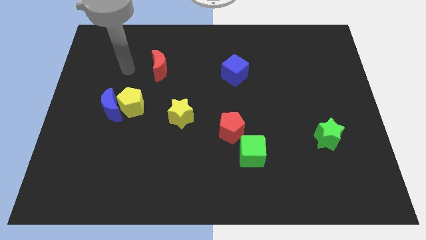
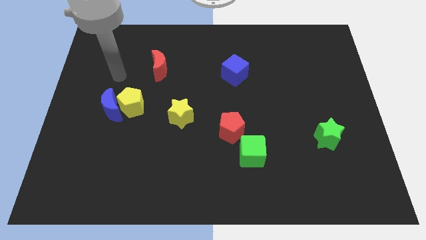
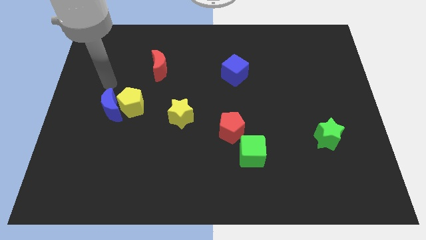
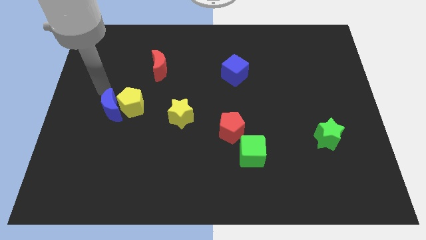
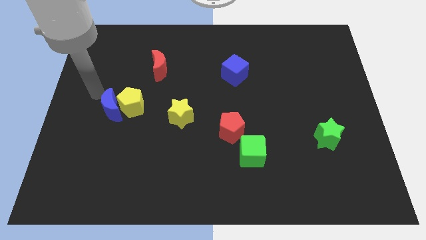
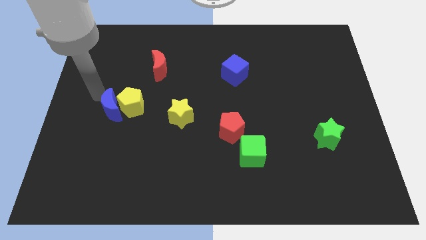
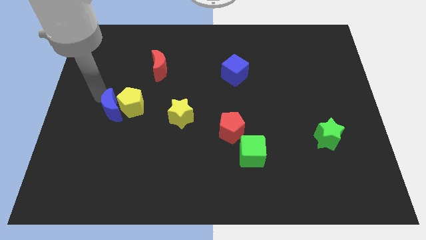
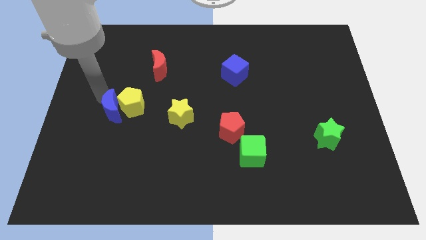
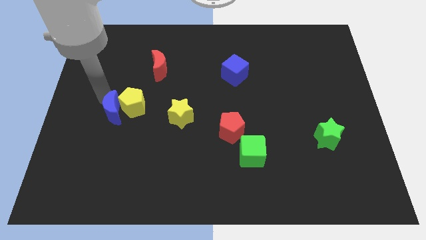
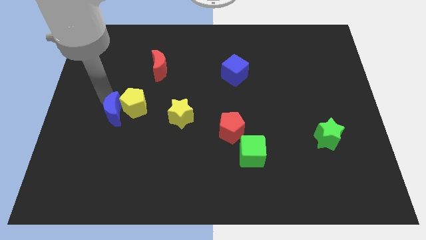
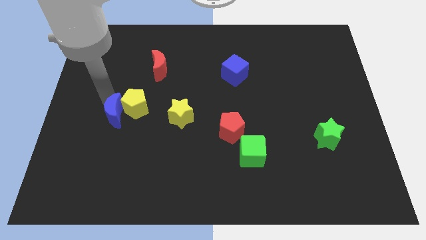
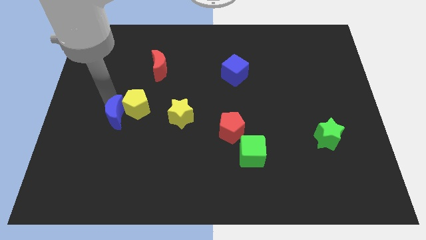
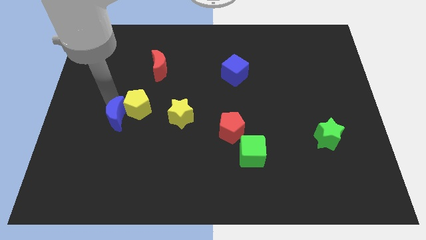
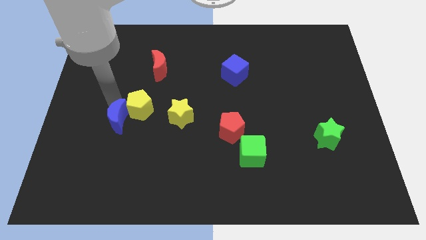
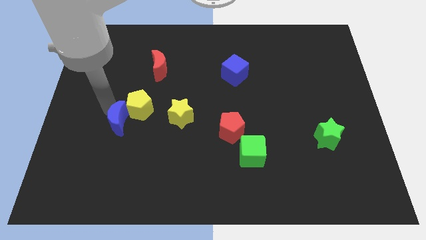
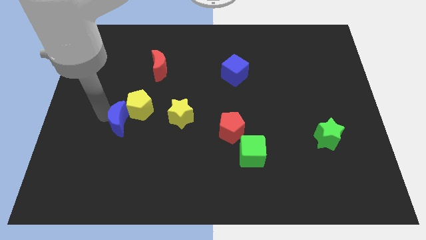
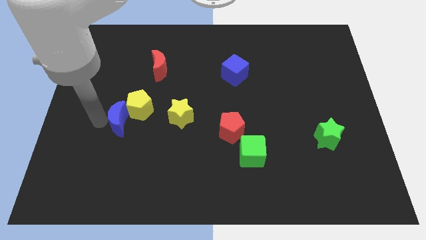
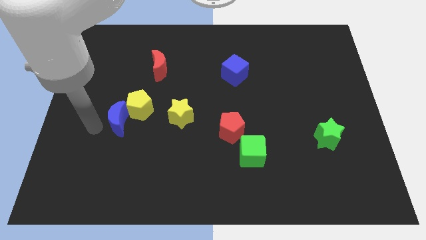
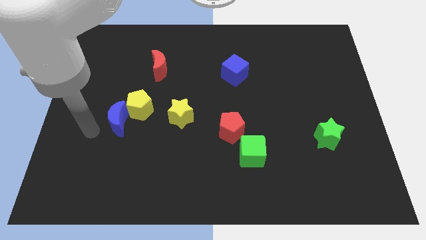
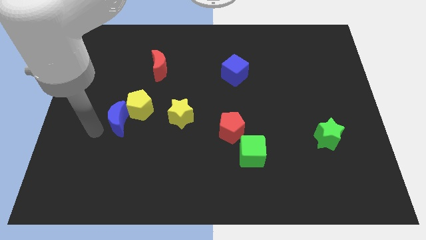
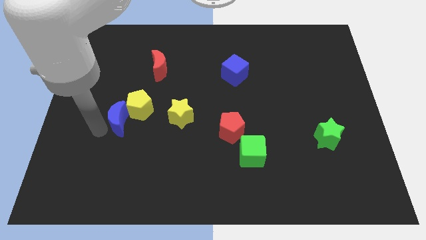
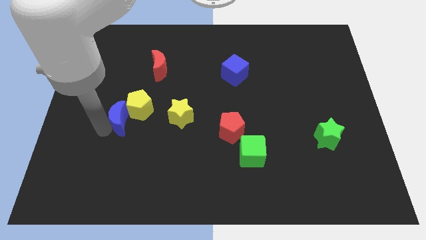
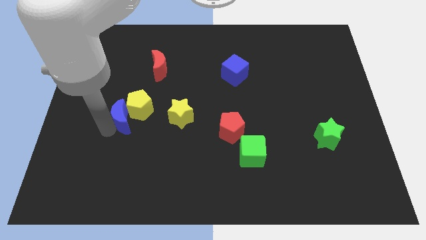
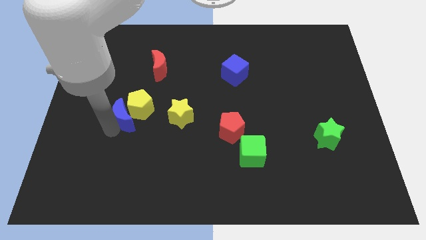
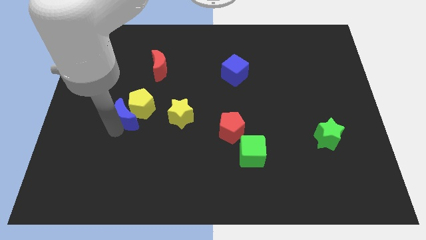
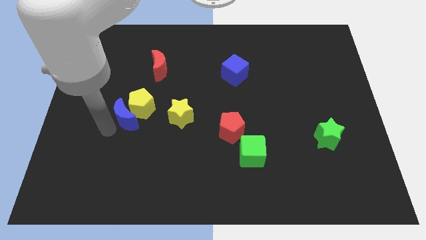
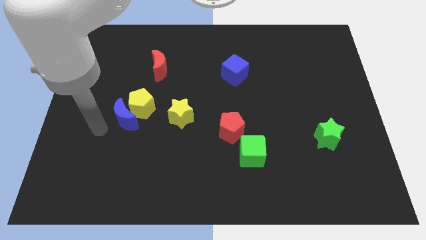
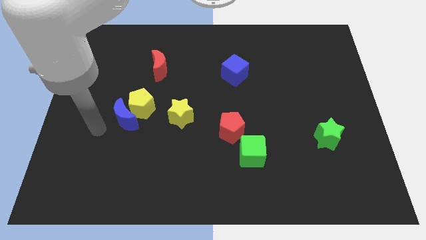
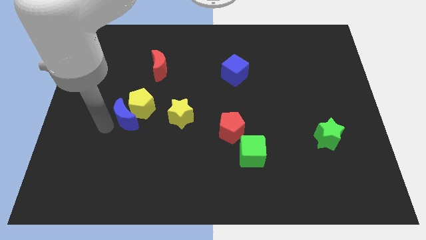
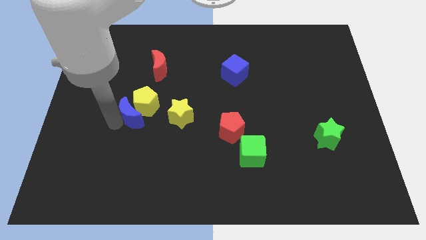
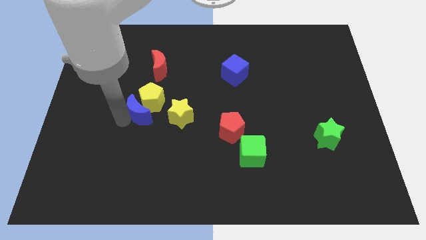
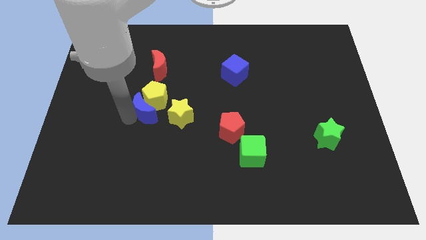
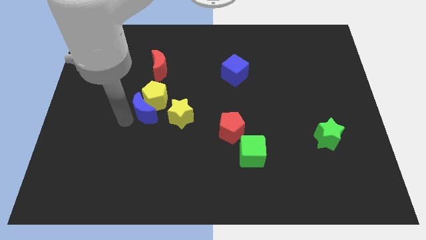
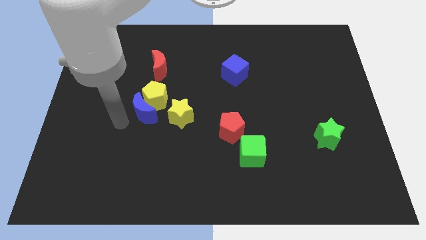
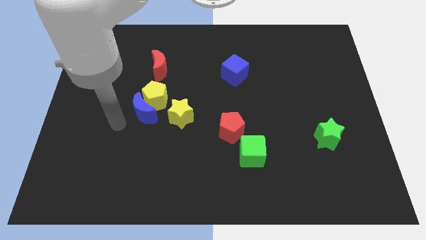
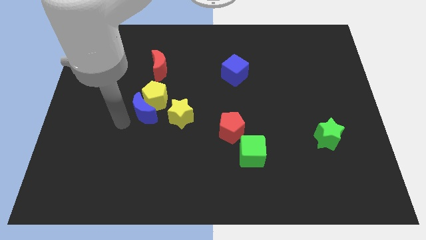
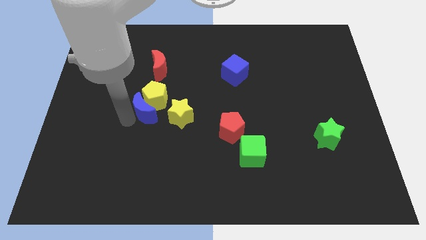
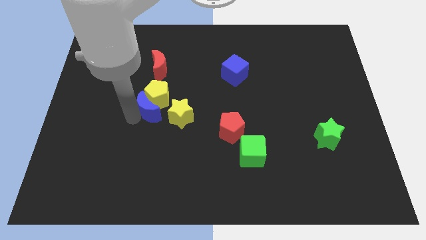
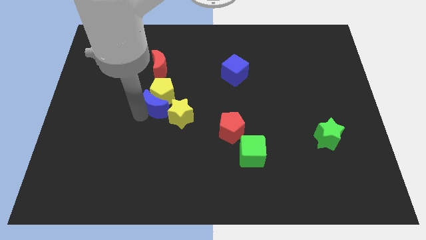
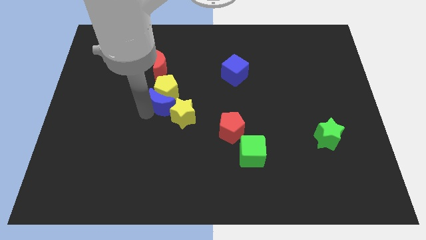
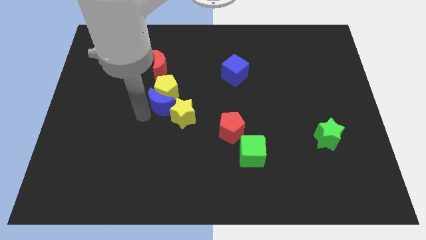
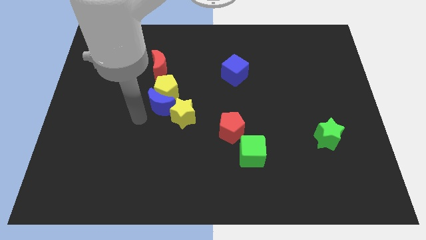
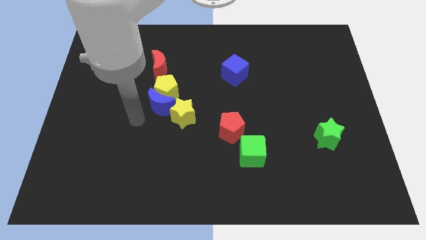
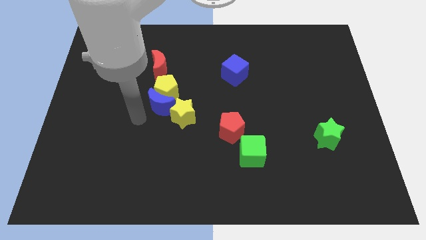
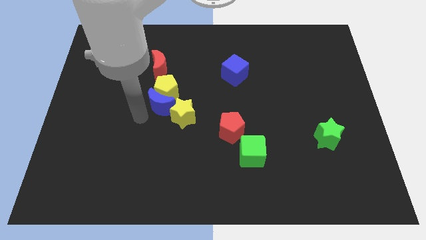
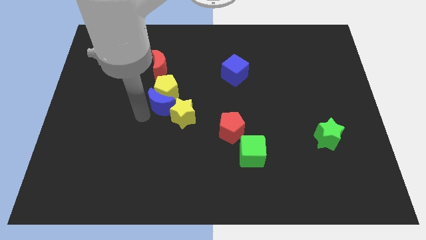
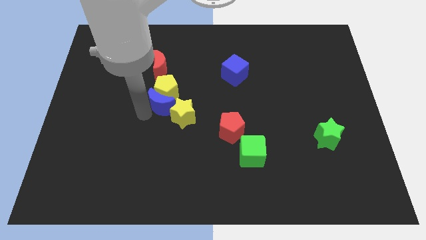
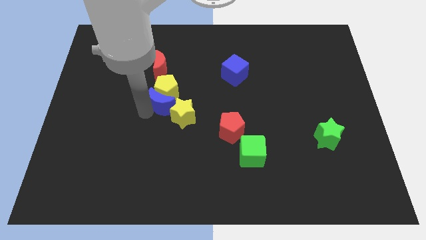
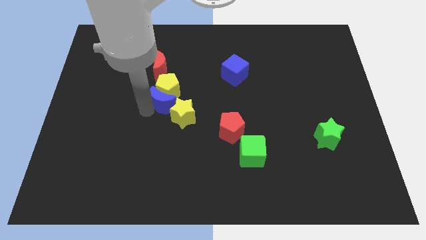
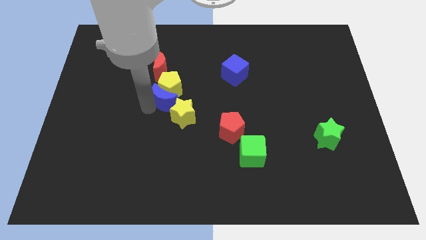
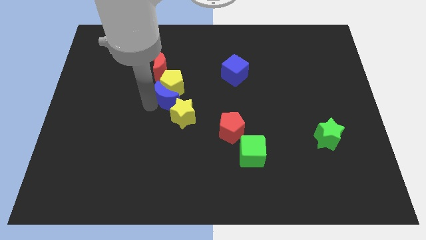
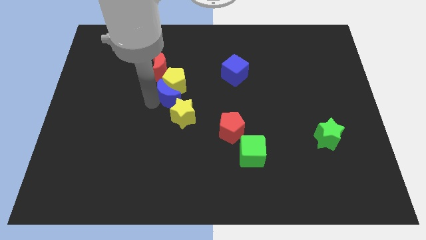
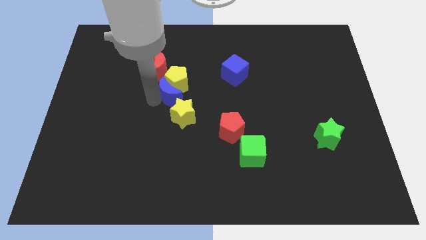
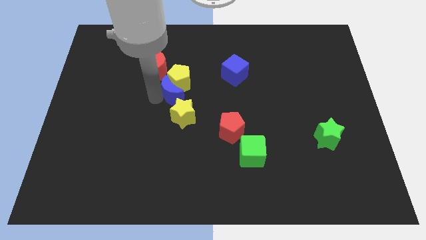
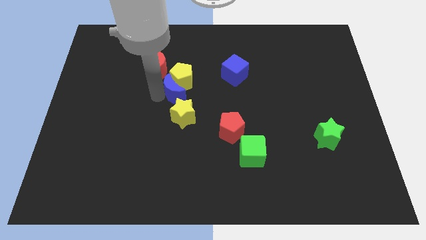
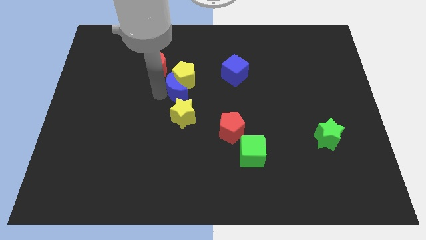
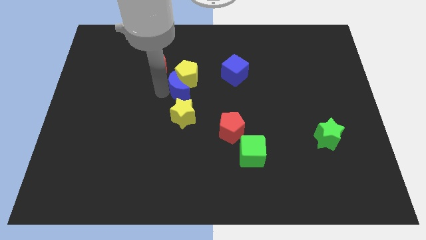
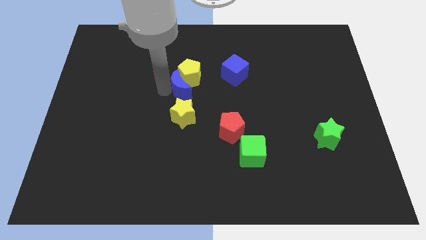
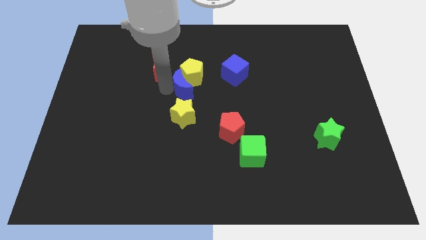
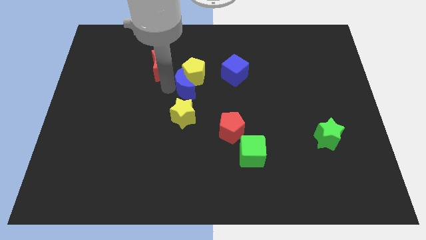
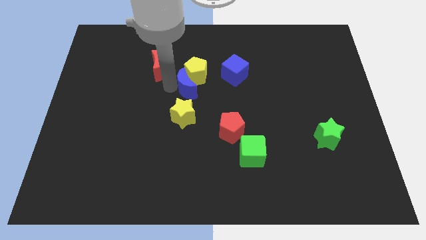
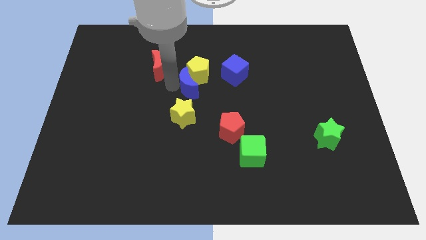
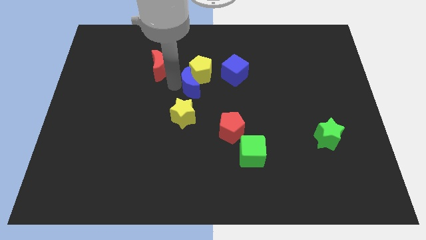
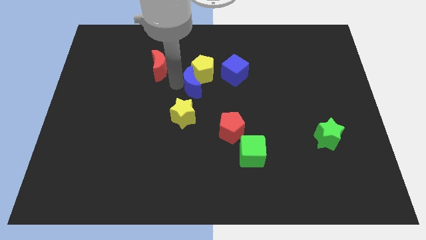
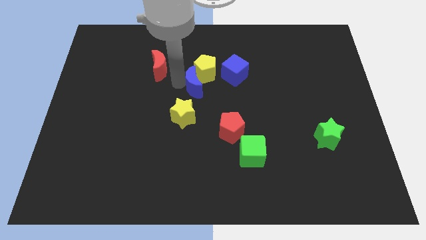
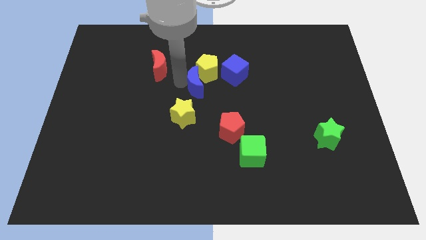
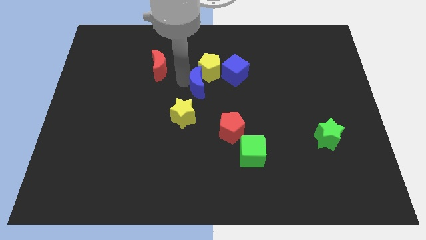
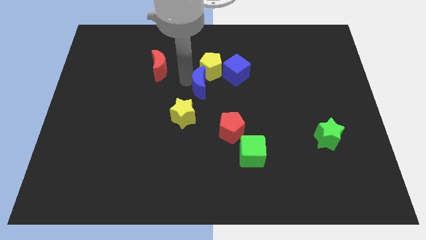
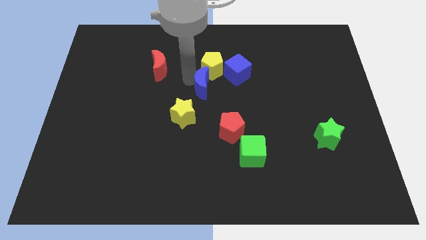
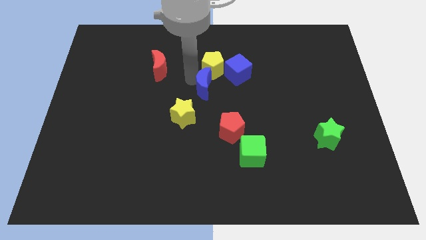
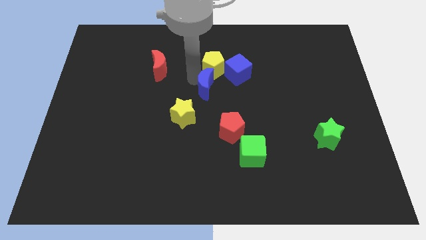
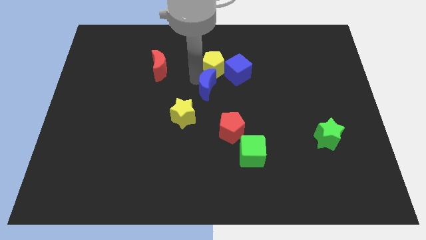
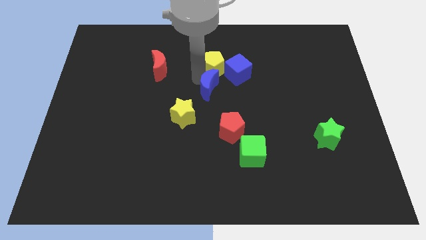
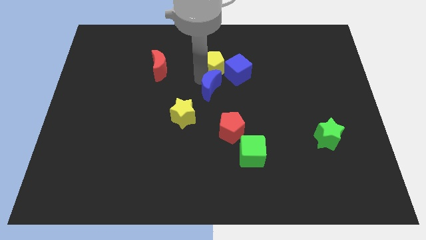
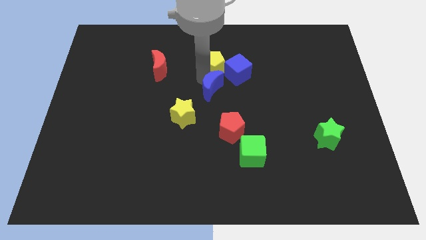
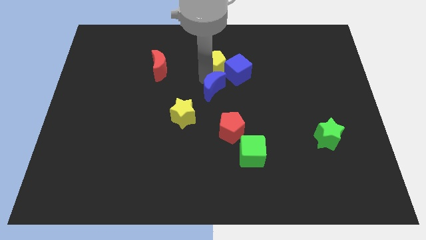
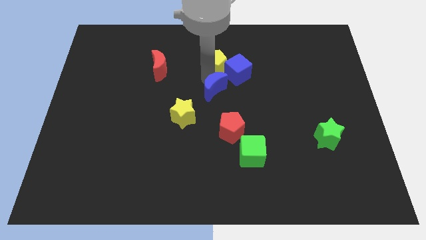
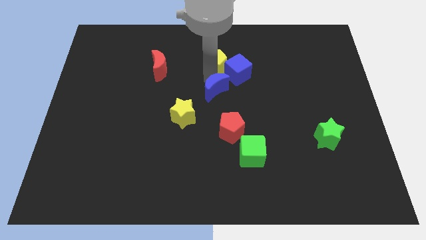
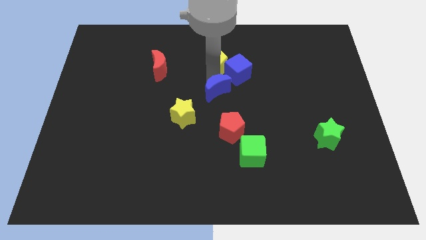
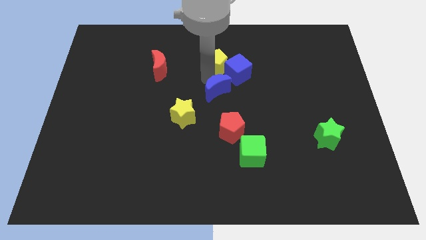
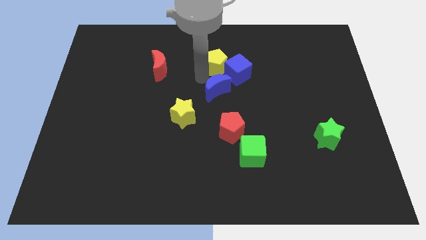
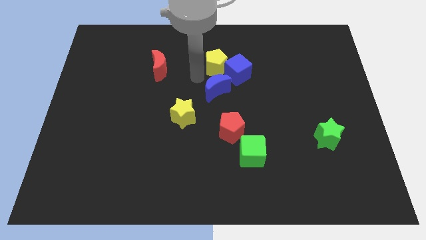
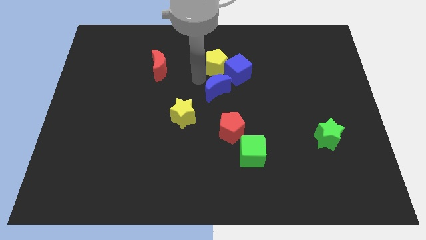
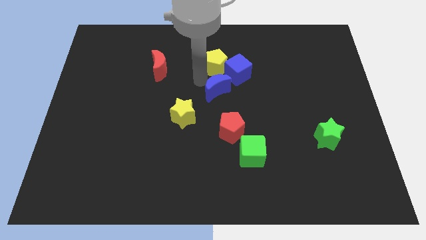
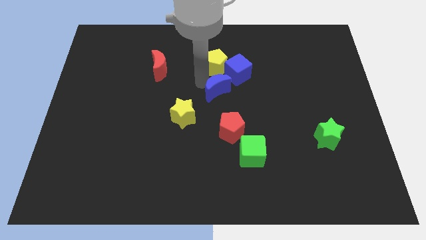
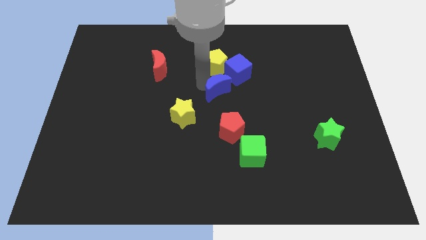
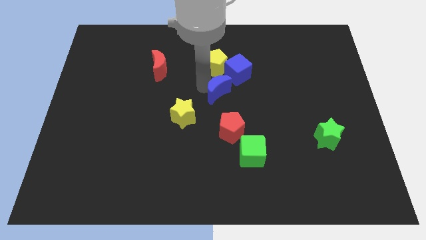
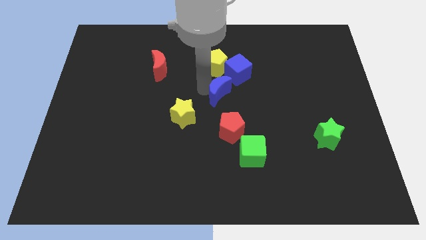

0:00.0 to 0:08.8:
move the blue moon below the blue cube
